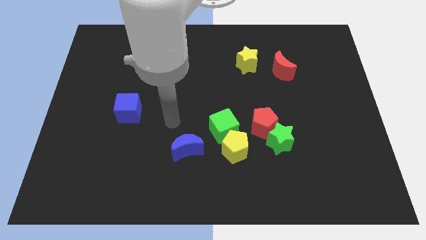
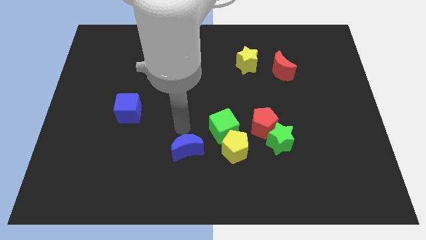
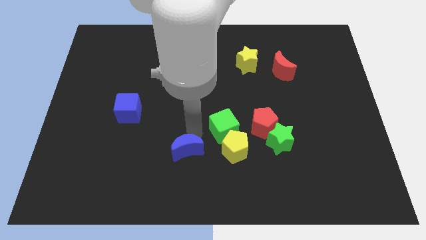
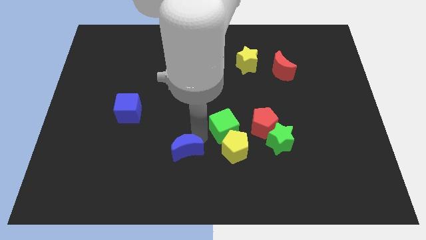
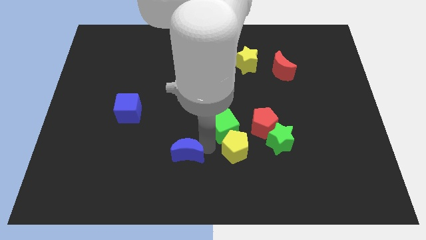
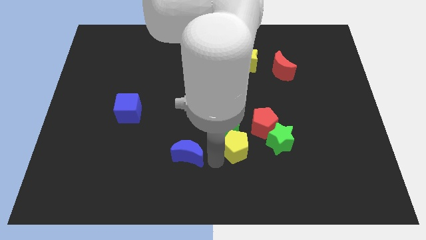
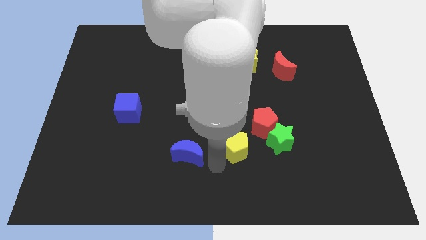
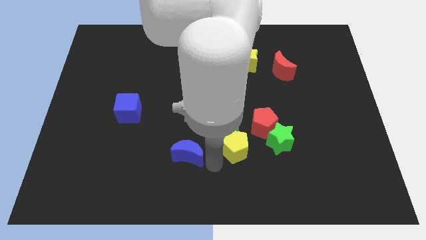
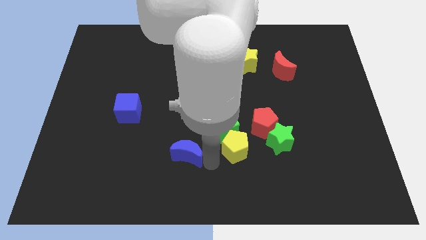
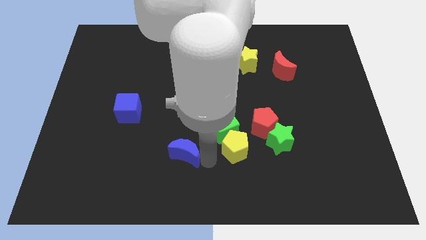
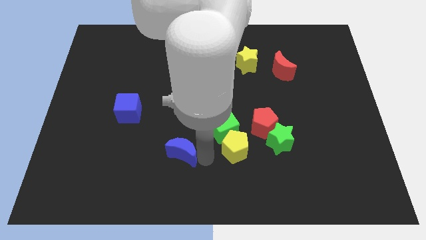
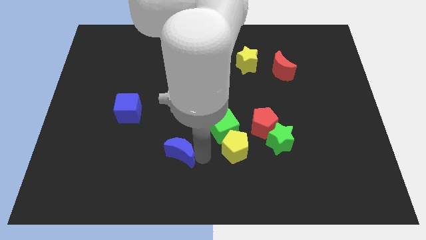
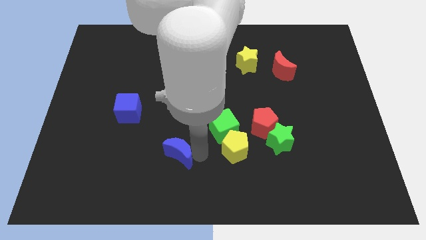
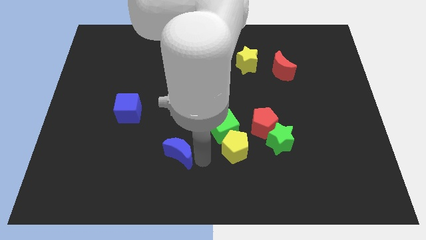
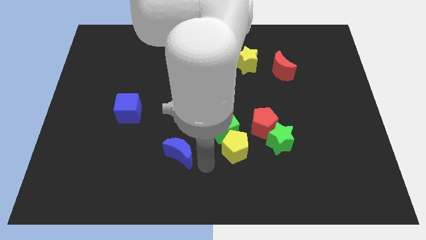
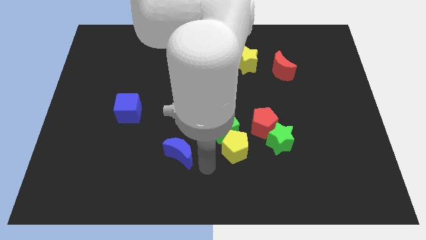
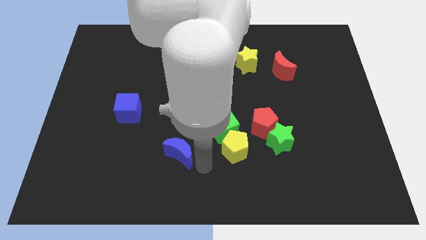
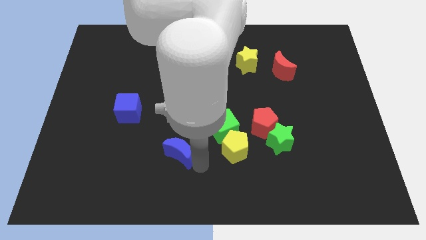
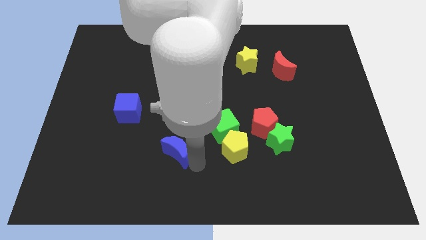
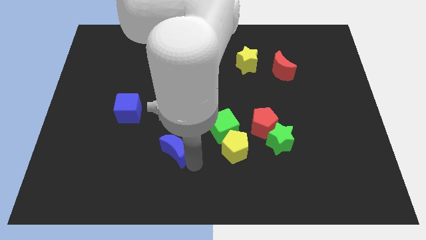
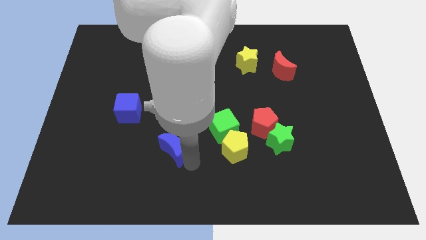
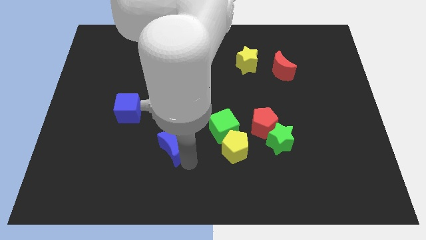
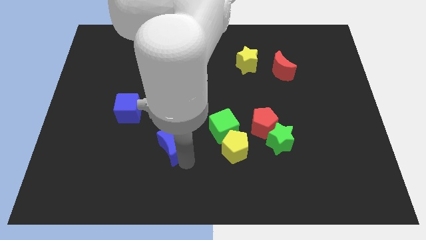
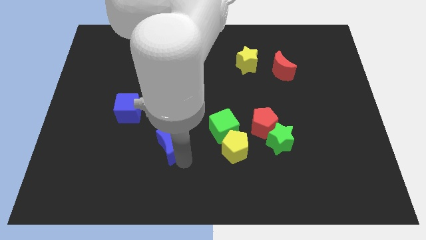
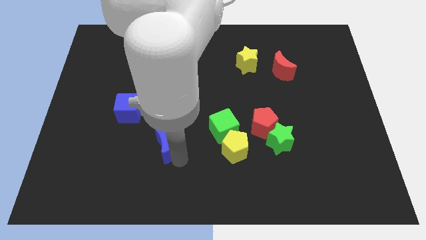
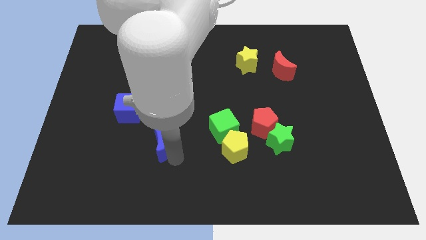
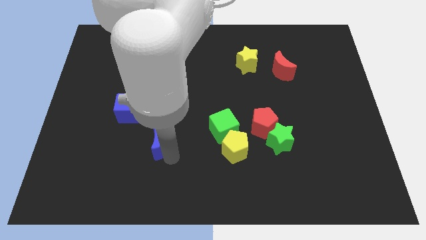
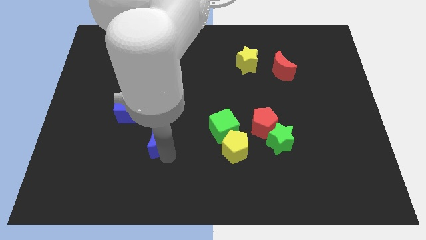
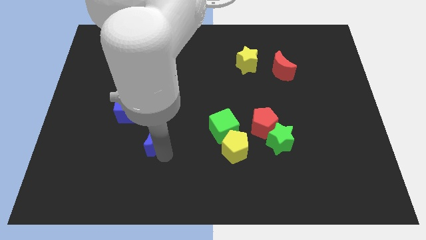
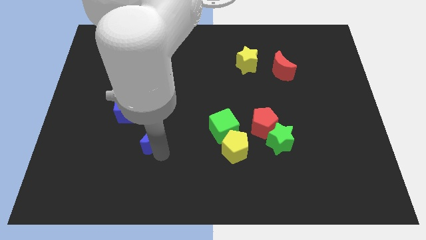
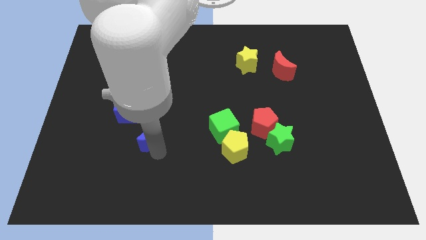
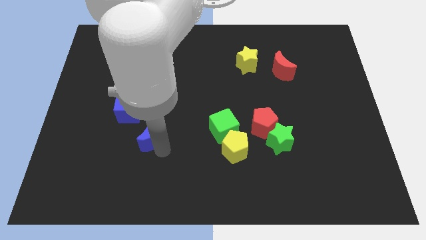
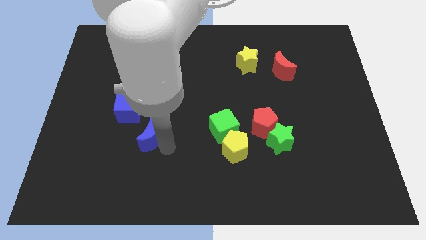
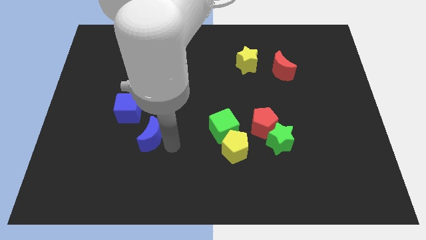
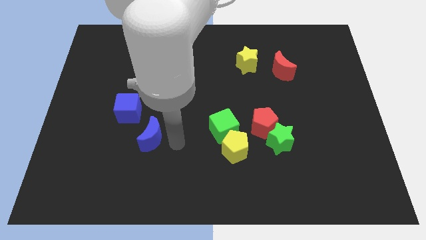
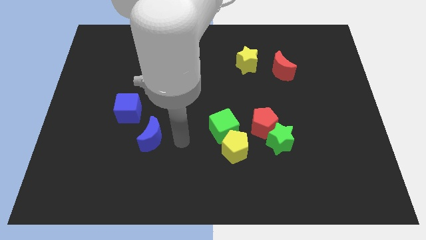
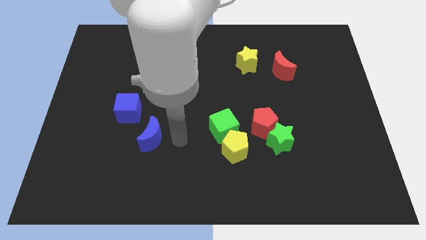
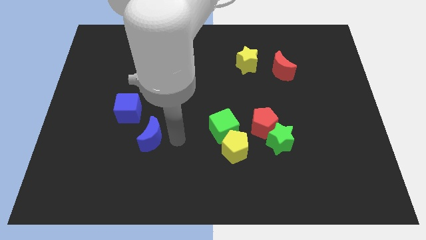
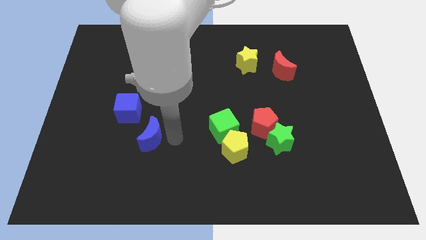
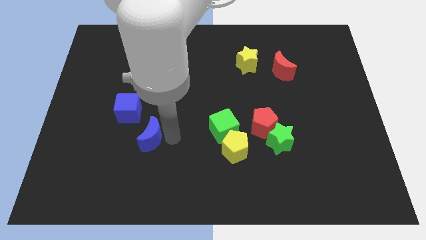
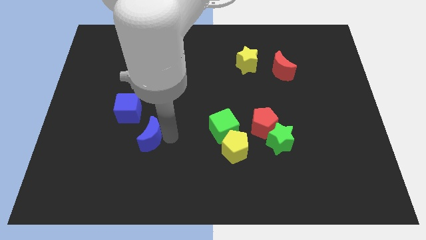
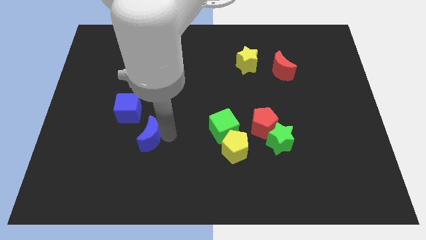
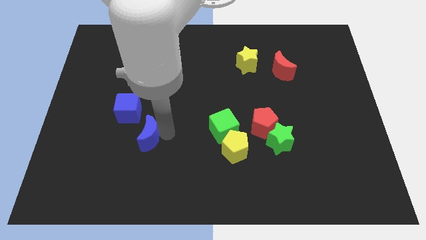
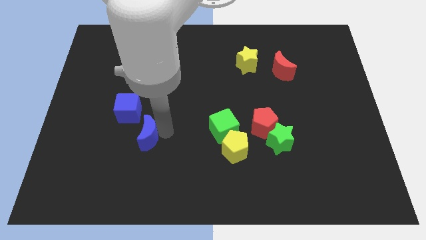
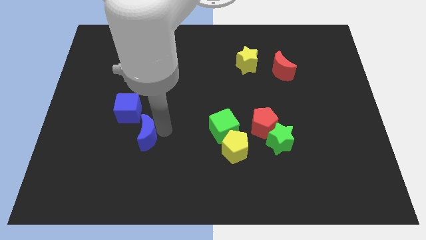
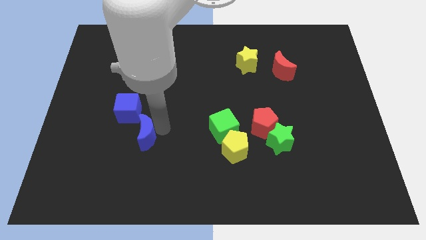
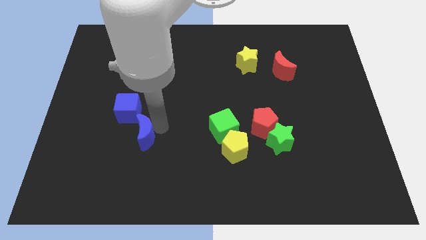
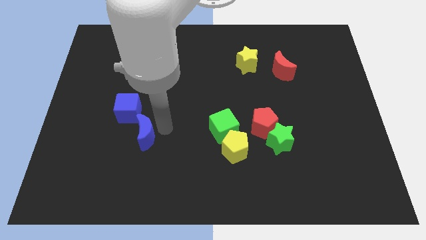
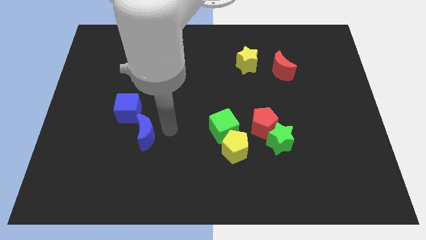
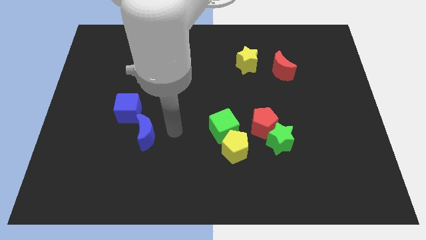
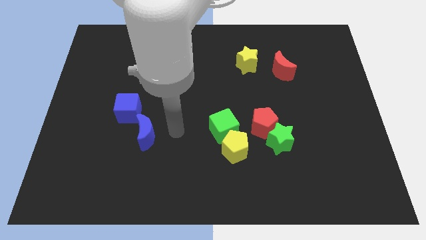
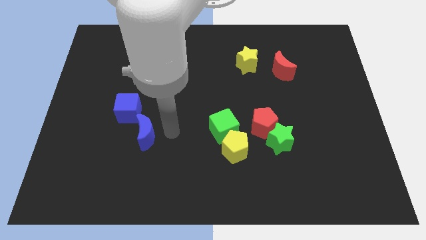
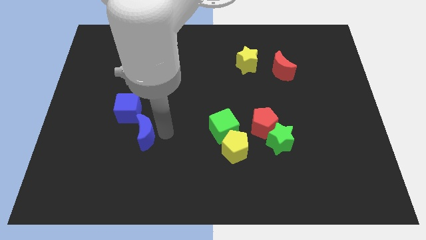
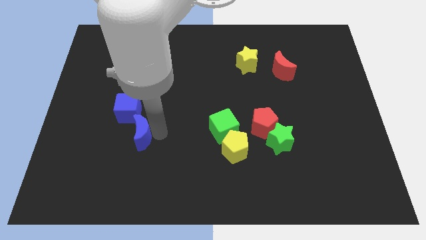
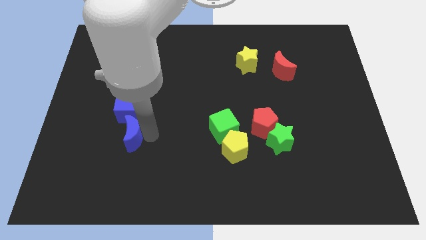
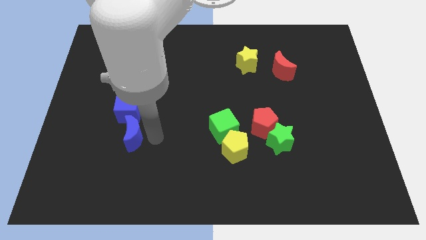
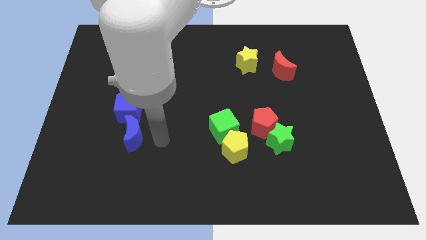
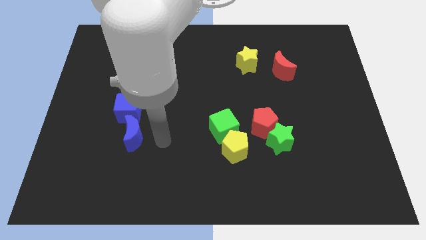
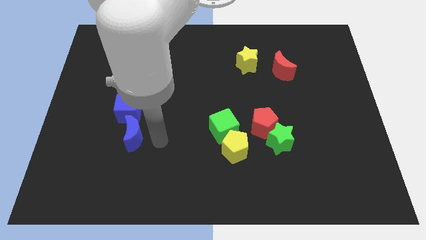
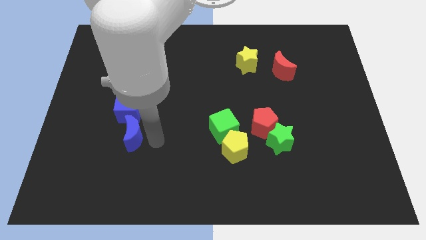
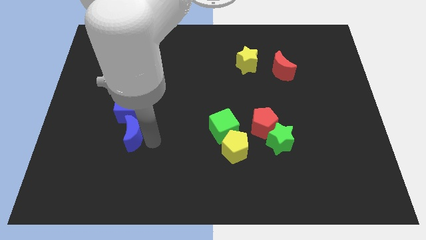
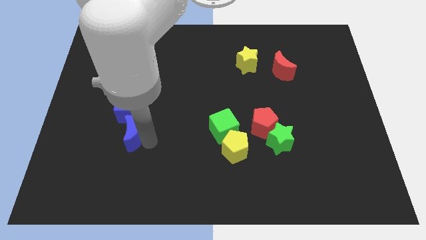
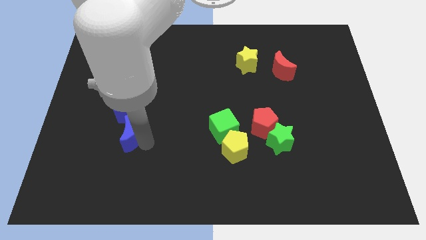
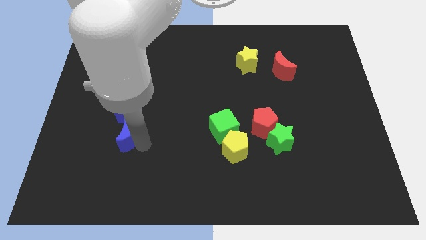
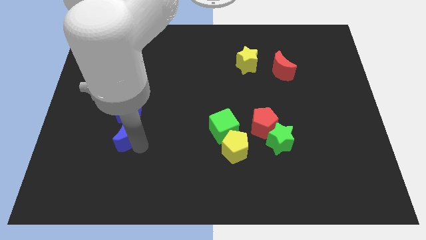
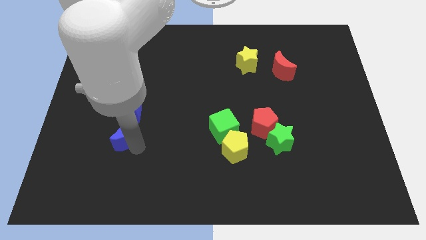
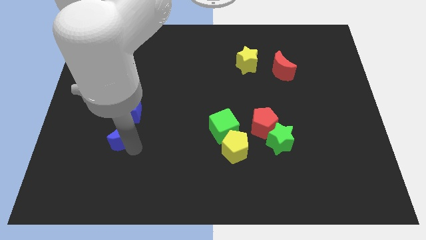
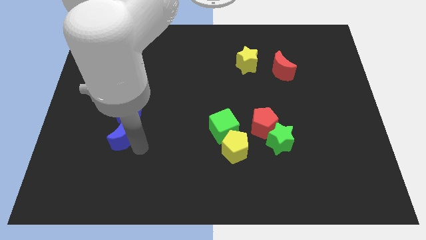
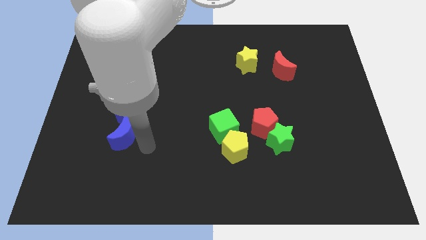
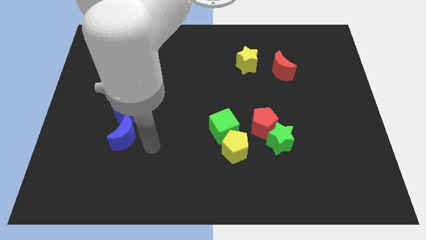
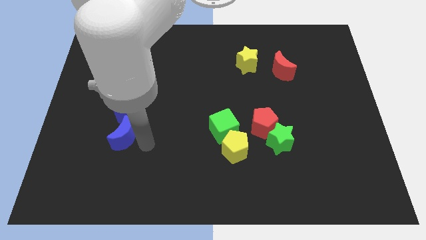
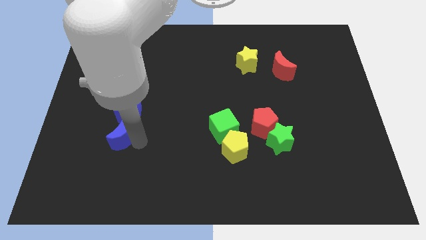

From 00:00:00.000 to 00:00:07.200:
move the blue moon diagonally down and to the left of the blue cube
